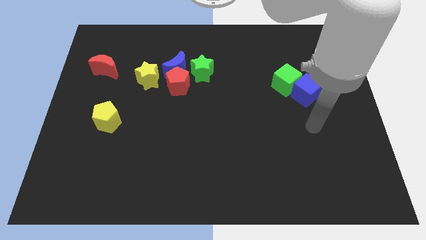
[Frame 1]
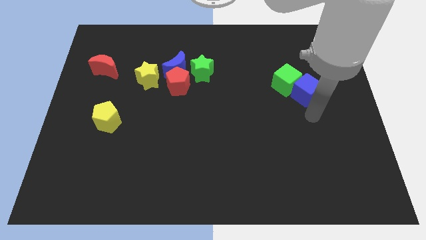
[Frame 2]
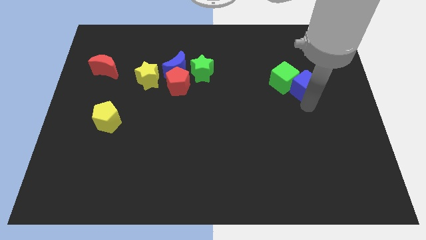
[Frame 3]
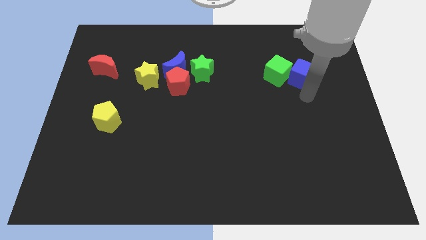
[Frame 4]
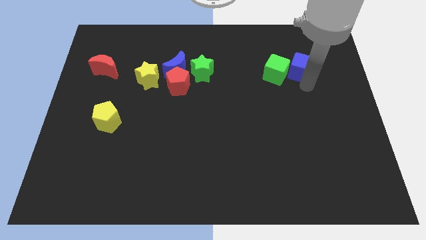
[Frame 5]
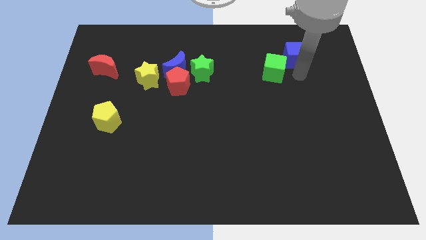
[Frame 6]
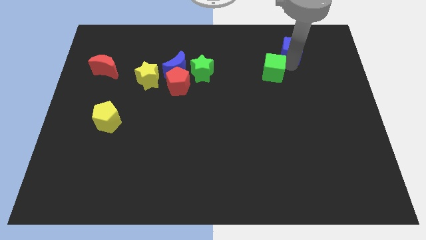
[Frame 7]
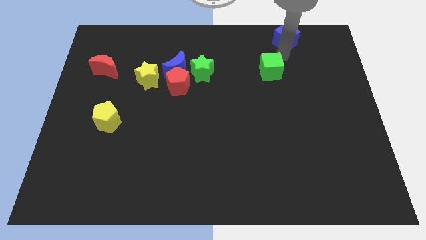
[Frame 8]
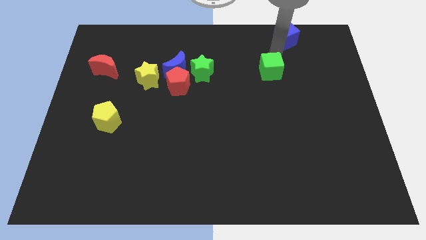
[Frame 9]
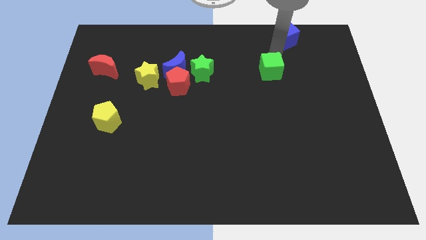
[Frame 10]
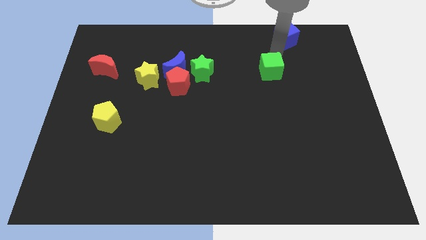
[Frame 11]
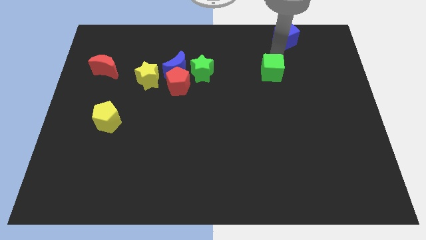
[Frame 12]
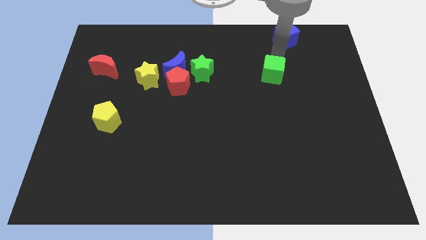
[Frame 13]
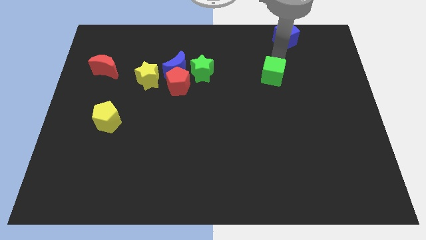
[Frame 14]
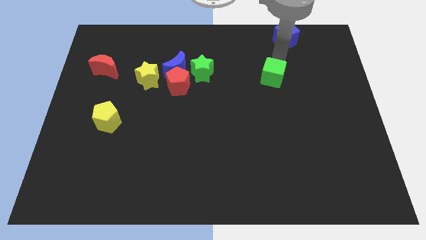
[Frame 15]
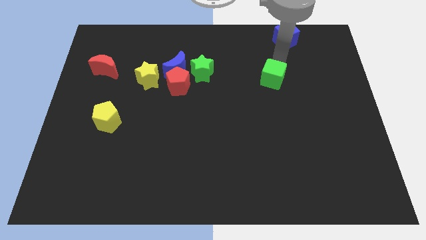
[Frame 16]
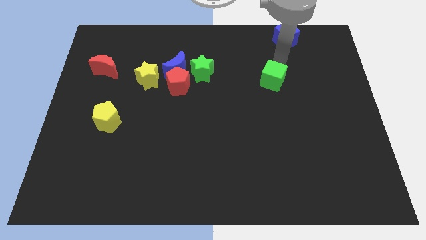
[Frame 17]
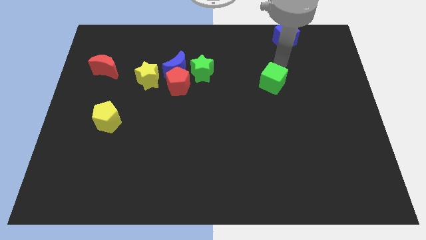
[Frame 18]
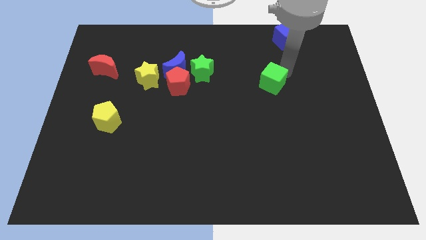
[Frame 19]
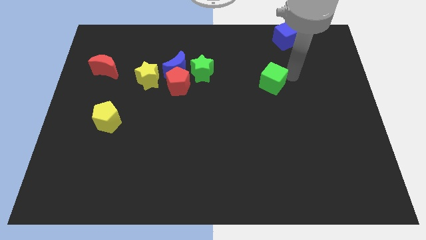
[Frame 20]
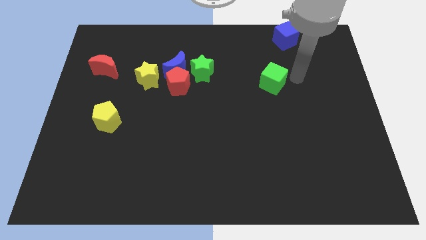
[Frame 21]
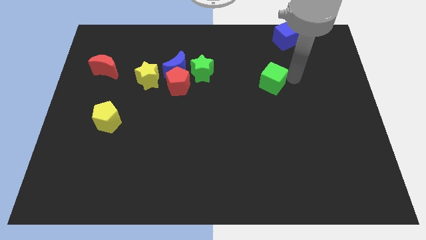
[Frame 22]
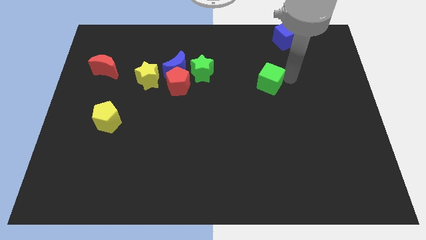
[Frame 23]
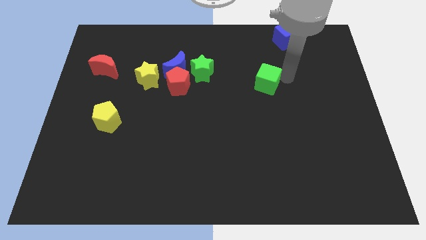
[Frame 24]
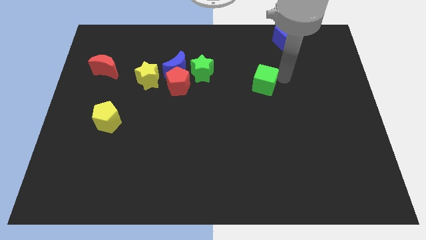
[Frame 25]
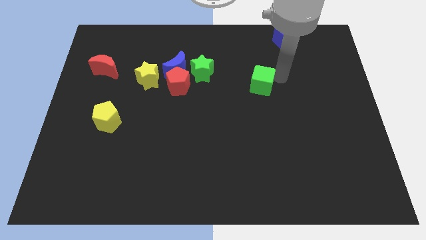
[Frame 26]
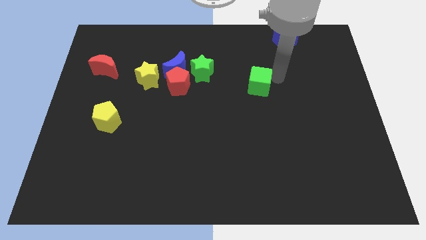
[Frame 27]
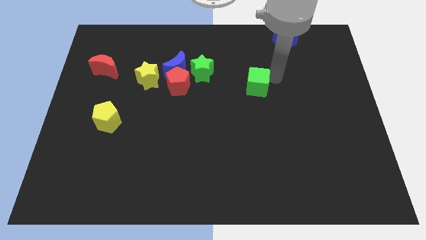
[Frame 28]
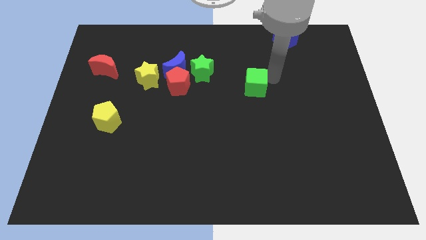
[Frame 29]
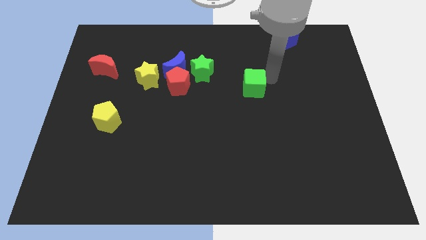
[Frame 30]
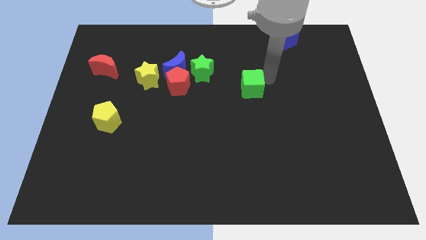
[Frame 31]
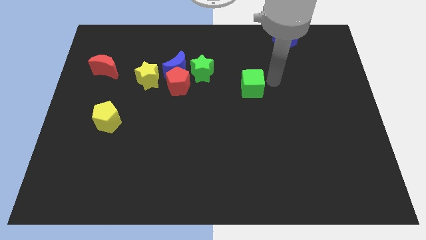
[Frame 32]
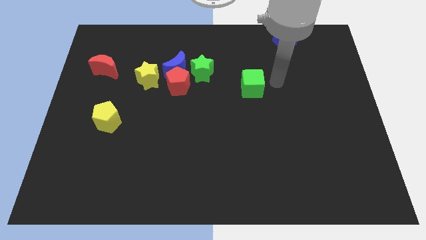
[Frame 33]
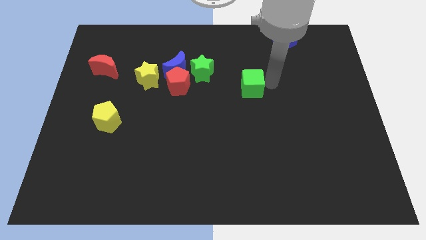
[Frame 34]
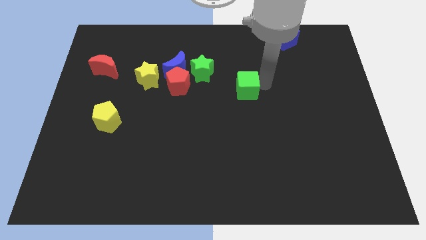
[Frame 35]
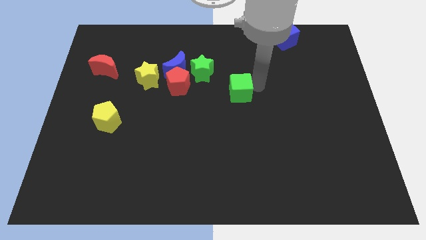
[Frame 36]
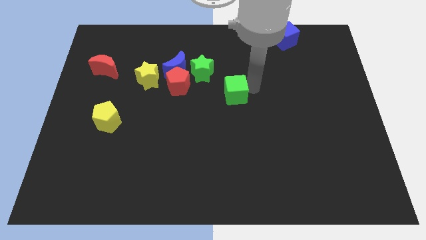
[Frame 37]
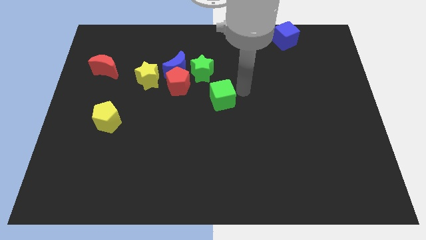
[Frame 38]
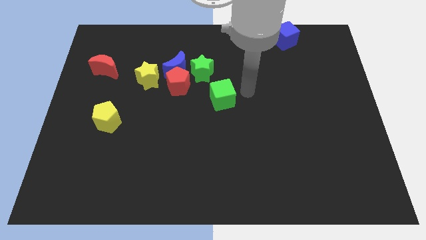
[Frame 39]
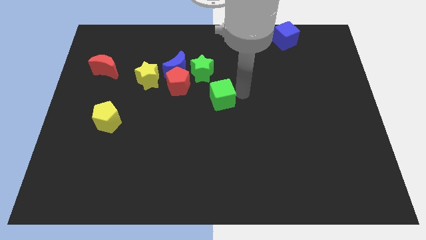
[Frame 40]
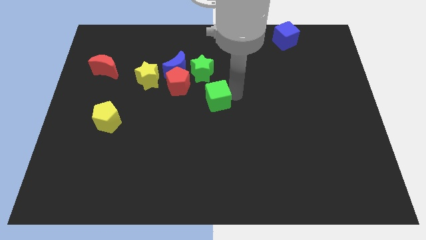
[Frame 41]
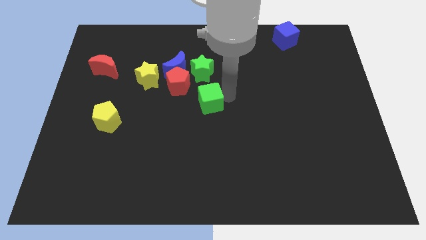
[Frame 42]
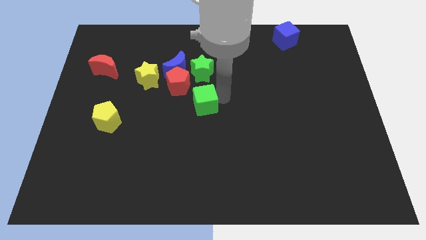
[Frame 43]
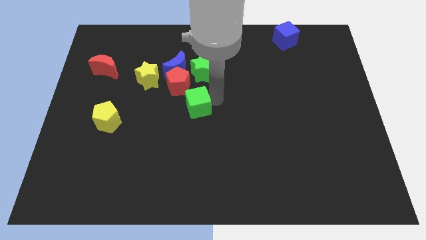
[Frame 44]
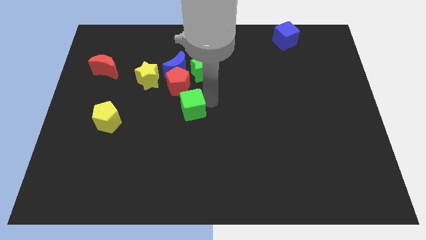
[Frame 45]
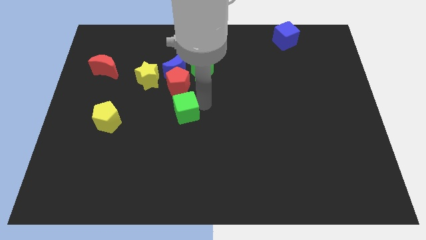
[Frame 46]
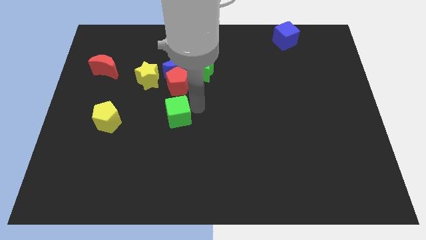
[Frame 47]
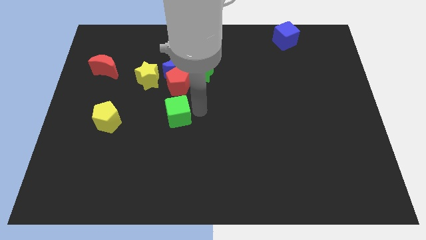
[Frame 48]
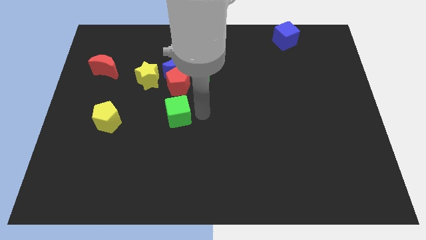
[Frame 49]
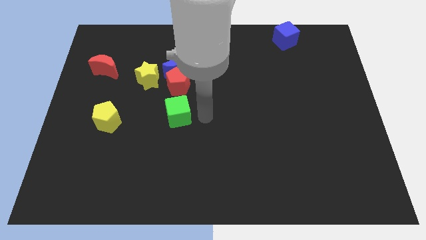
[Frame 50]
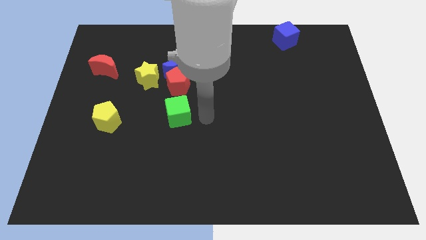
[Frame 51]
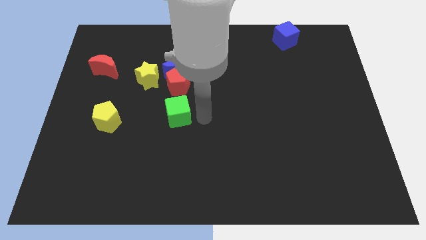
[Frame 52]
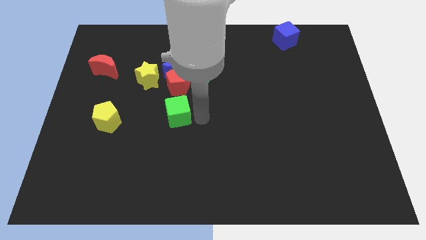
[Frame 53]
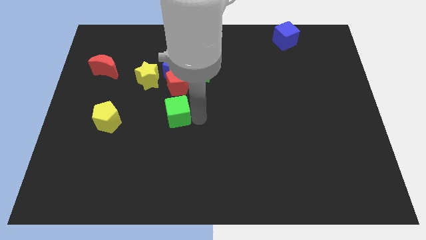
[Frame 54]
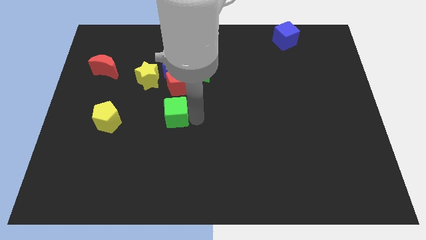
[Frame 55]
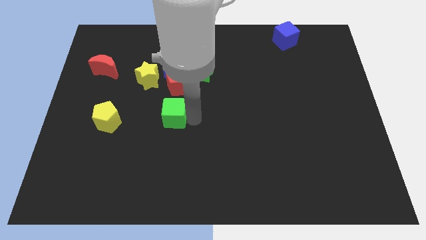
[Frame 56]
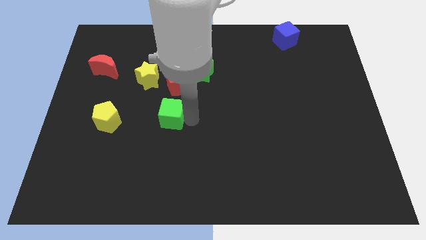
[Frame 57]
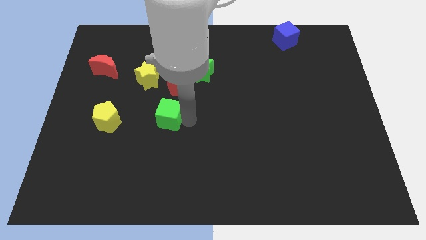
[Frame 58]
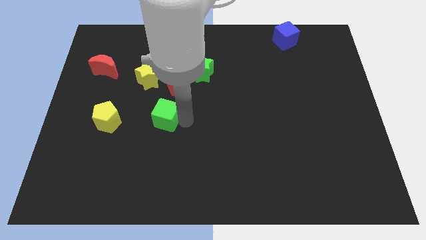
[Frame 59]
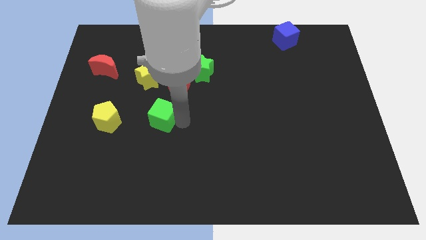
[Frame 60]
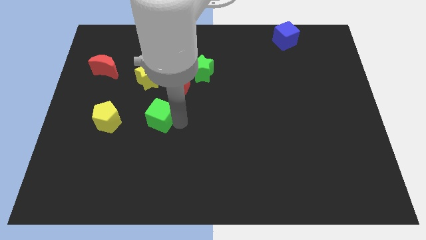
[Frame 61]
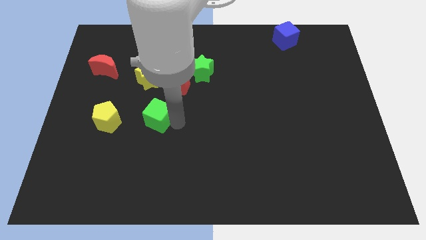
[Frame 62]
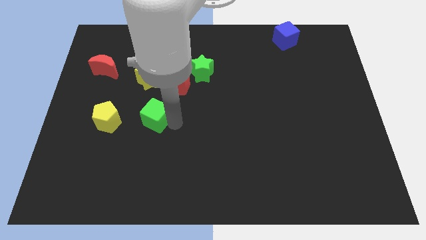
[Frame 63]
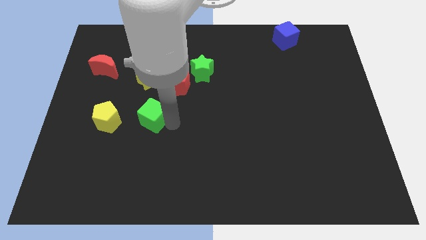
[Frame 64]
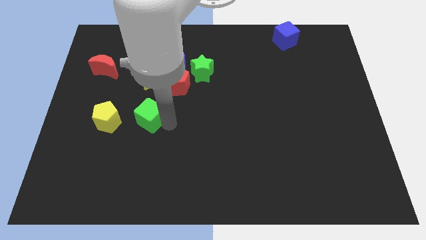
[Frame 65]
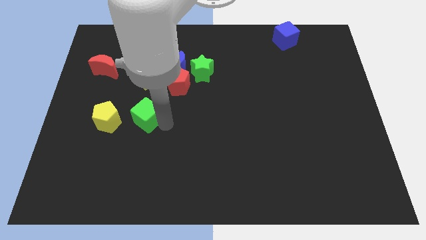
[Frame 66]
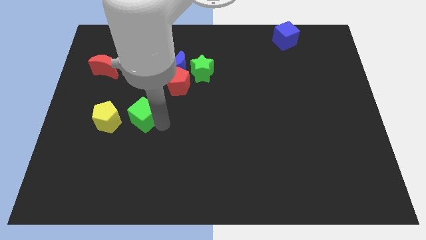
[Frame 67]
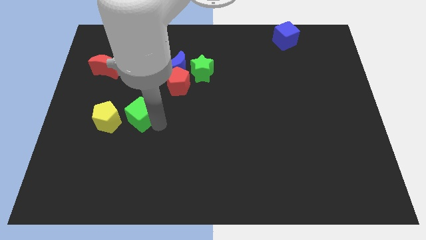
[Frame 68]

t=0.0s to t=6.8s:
slide the green cube diagonally up and to the right of the yellow pentagon

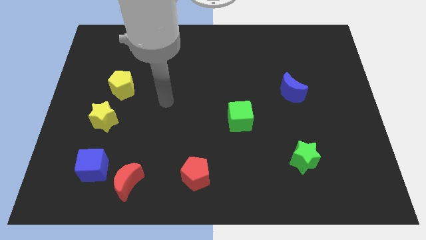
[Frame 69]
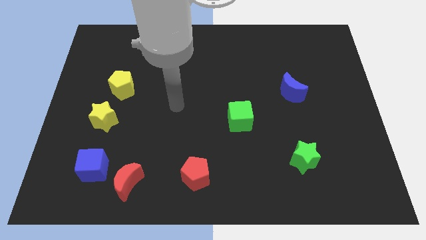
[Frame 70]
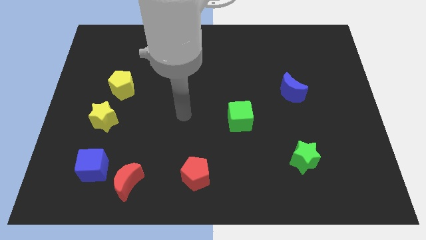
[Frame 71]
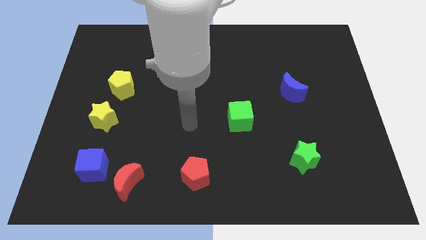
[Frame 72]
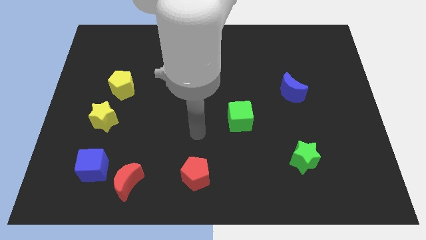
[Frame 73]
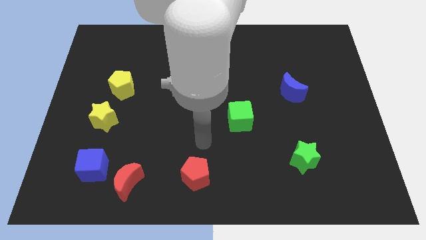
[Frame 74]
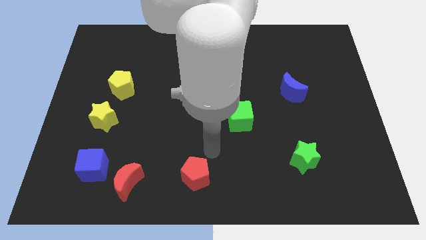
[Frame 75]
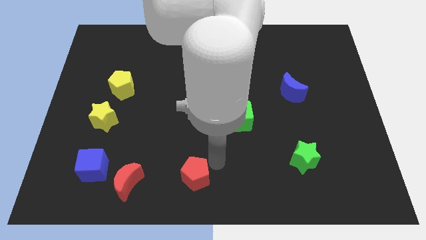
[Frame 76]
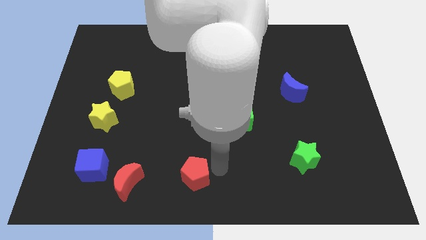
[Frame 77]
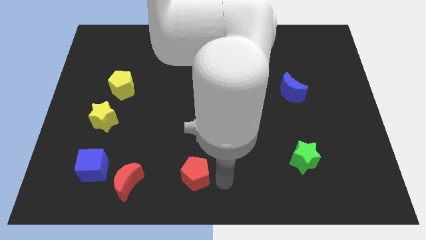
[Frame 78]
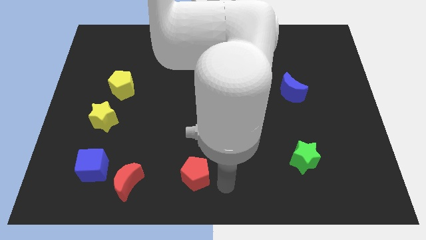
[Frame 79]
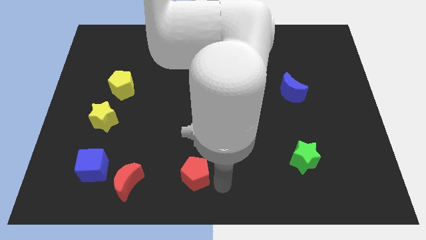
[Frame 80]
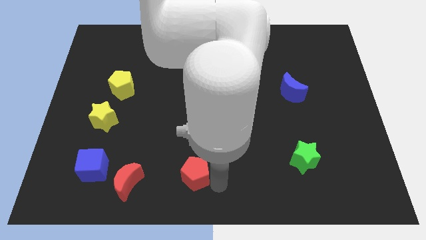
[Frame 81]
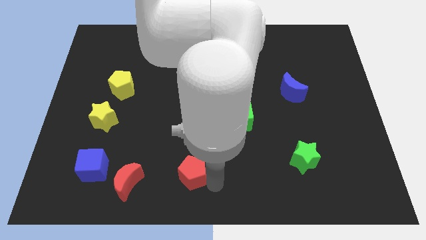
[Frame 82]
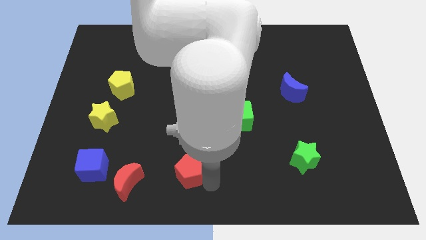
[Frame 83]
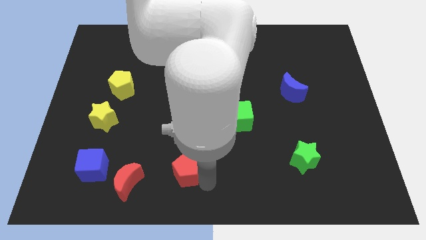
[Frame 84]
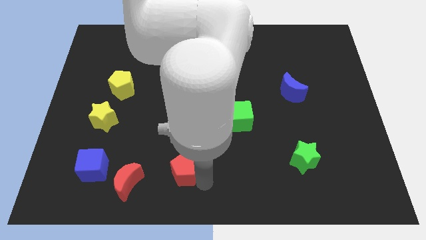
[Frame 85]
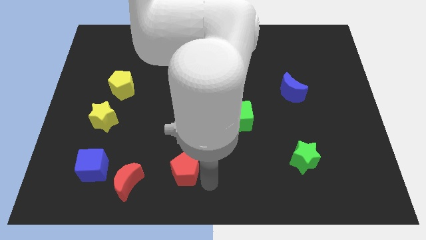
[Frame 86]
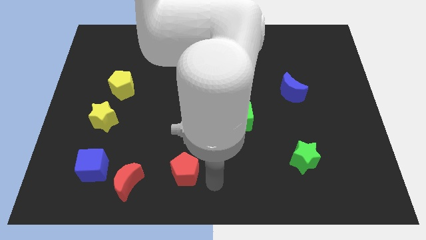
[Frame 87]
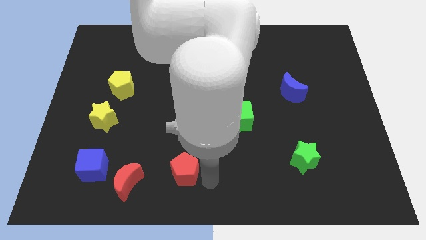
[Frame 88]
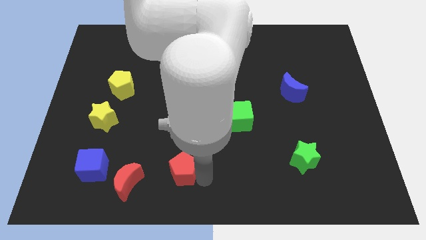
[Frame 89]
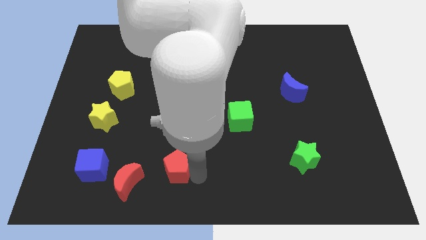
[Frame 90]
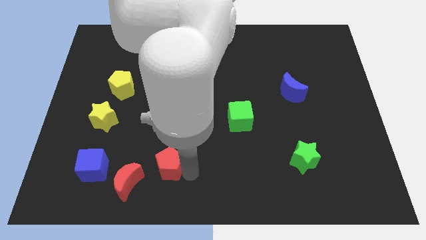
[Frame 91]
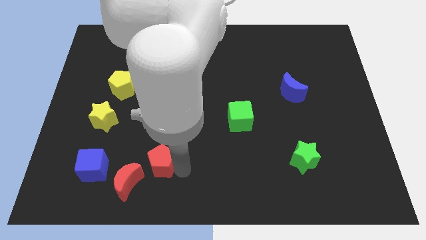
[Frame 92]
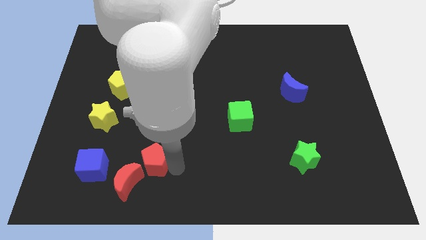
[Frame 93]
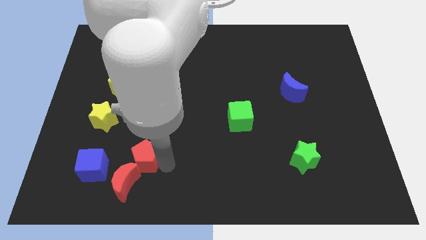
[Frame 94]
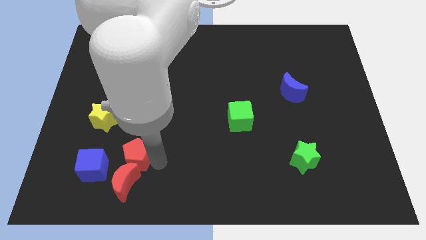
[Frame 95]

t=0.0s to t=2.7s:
slide the red pentagon to the top right side of the blue cube
